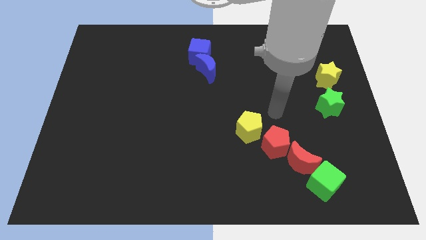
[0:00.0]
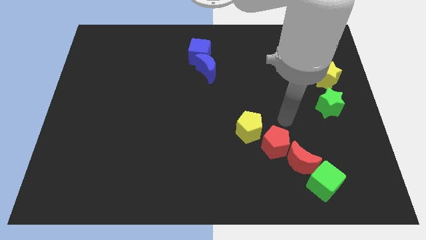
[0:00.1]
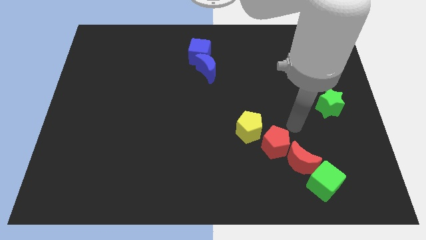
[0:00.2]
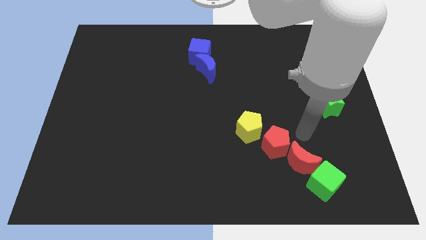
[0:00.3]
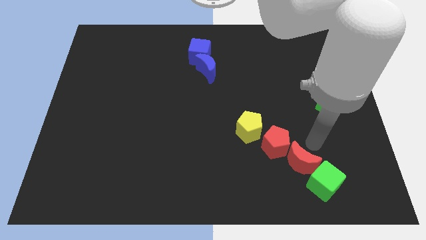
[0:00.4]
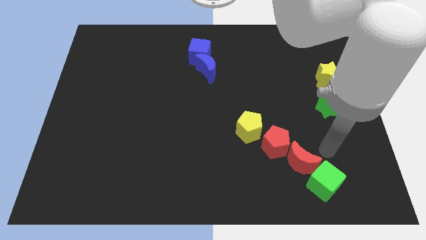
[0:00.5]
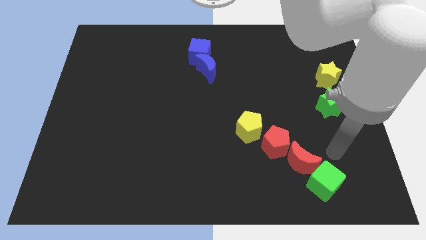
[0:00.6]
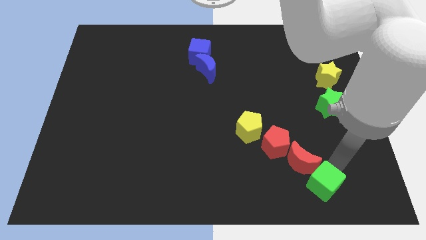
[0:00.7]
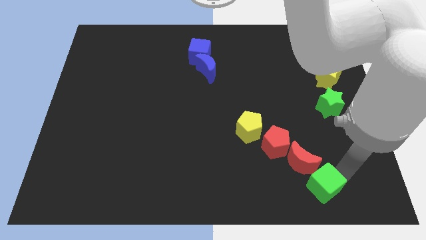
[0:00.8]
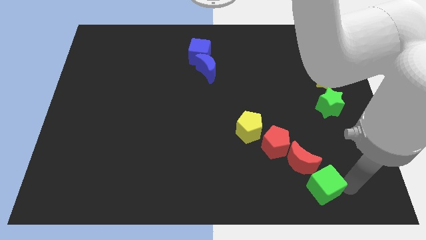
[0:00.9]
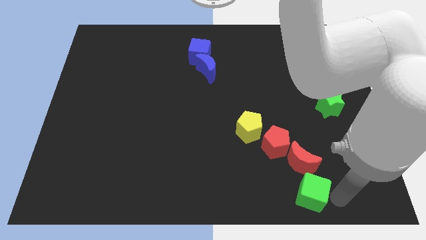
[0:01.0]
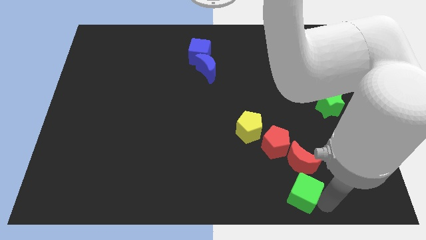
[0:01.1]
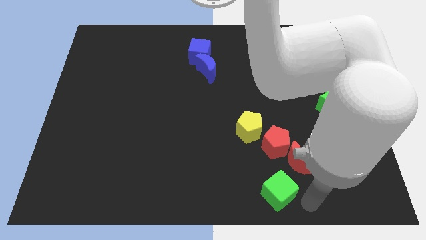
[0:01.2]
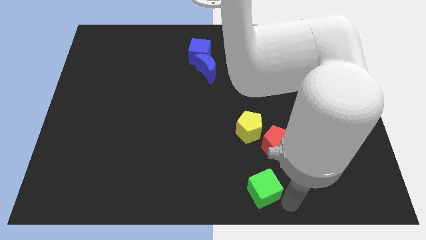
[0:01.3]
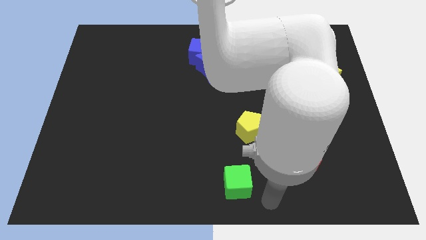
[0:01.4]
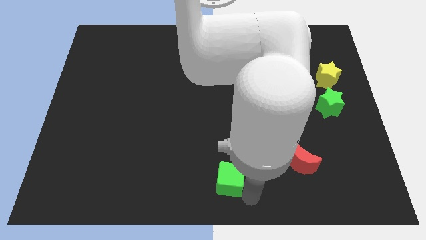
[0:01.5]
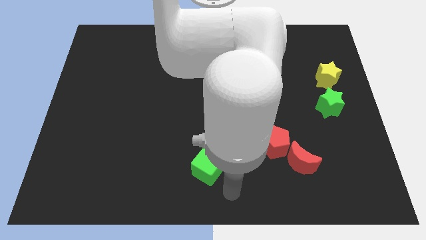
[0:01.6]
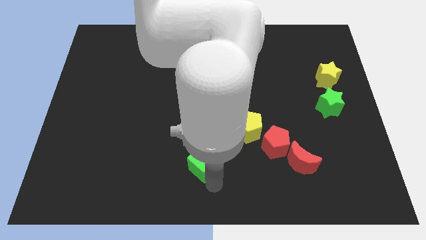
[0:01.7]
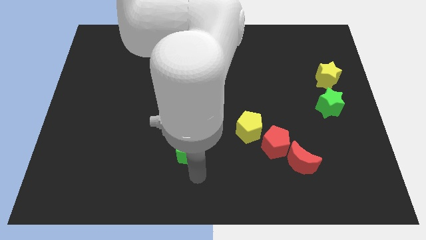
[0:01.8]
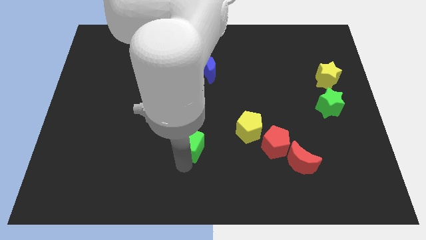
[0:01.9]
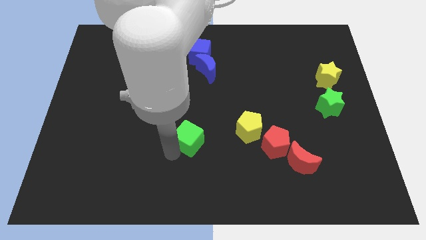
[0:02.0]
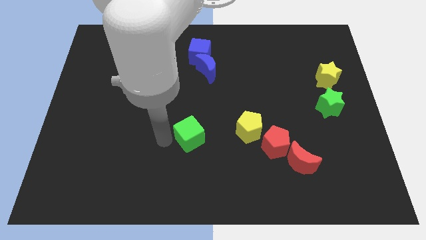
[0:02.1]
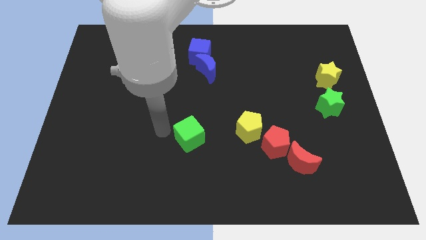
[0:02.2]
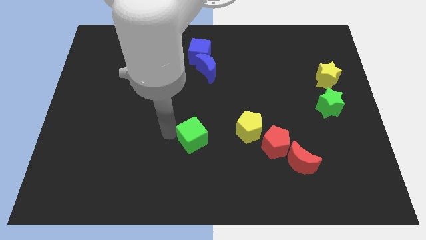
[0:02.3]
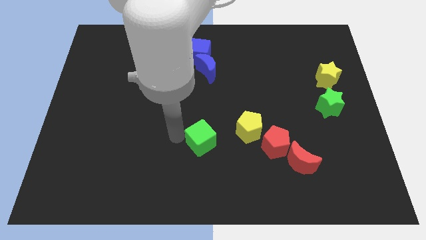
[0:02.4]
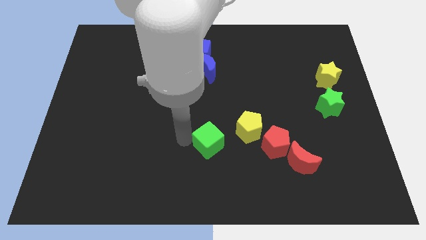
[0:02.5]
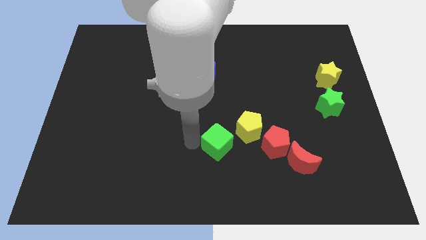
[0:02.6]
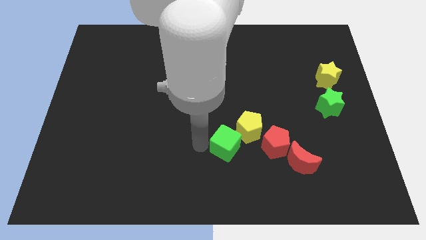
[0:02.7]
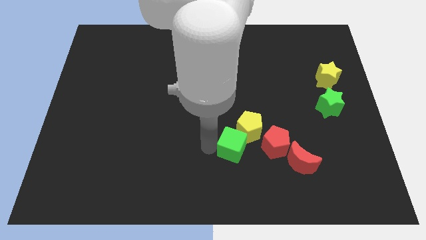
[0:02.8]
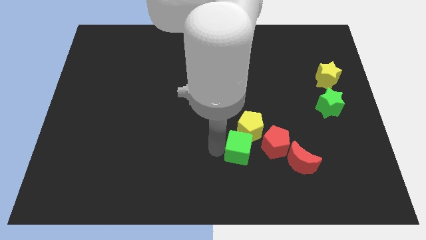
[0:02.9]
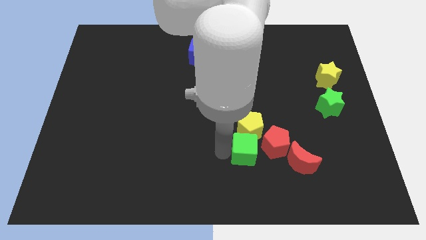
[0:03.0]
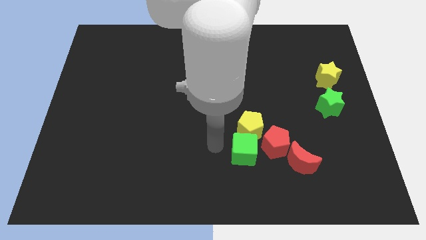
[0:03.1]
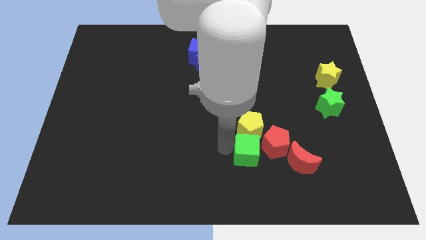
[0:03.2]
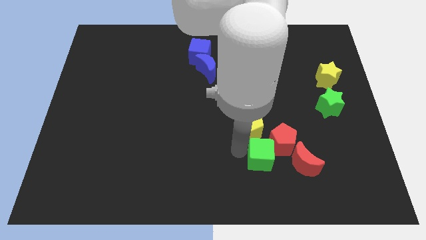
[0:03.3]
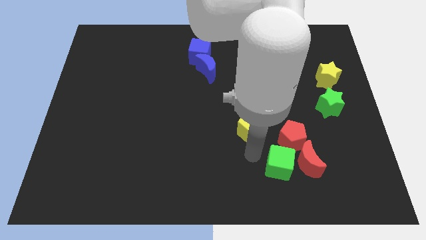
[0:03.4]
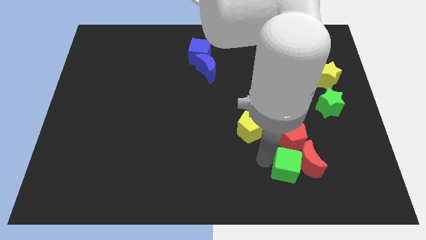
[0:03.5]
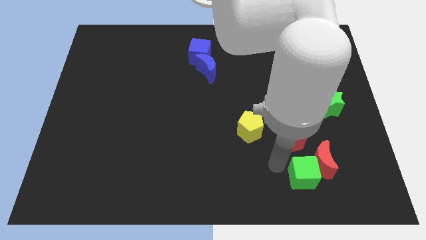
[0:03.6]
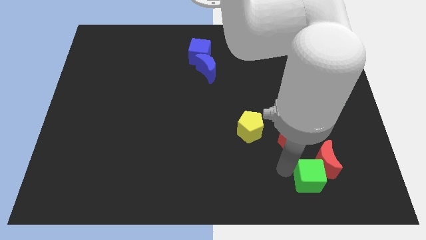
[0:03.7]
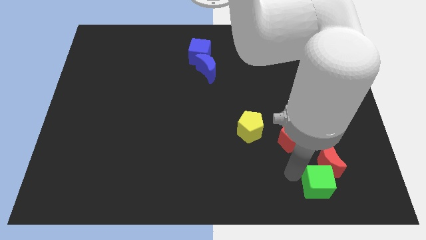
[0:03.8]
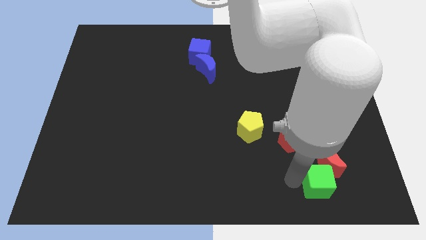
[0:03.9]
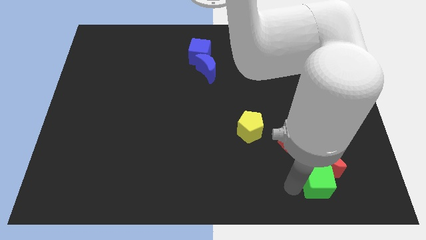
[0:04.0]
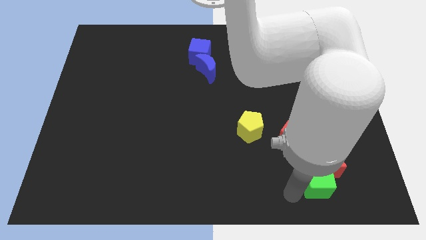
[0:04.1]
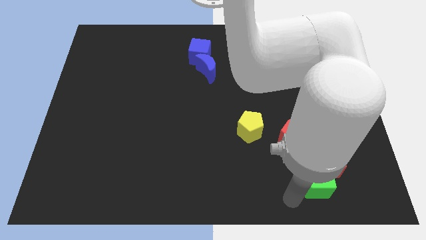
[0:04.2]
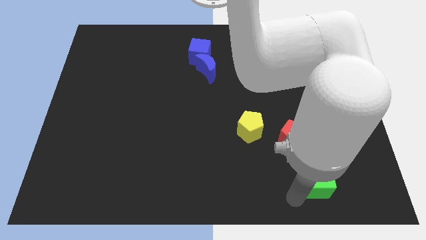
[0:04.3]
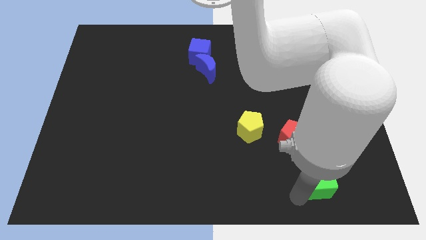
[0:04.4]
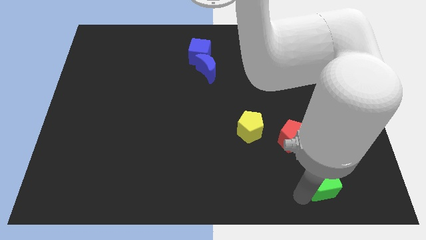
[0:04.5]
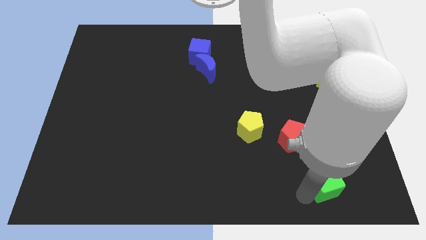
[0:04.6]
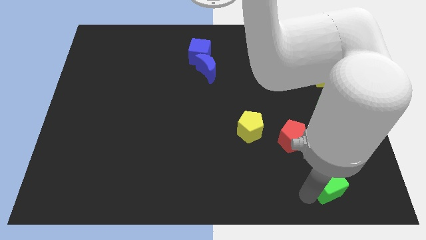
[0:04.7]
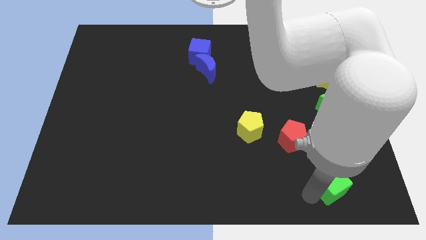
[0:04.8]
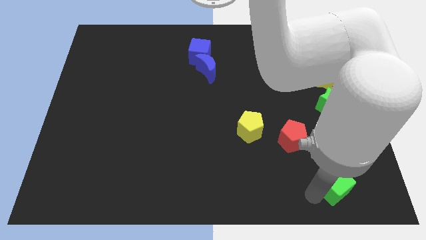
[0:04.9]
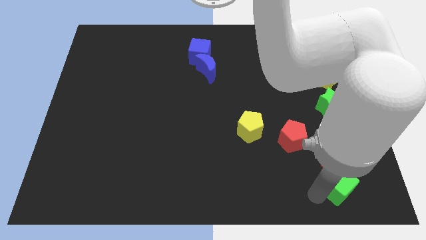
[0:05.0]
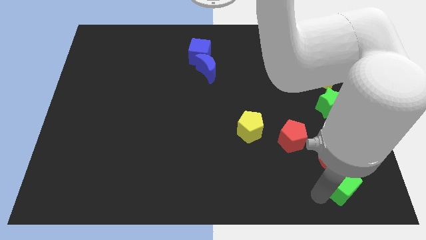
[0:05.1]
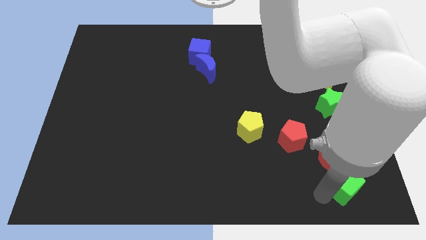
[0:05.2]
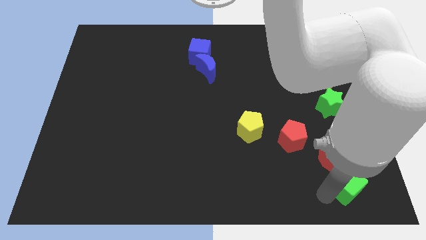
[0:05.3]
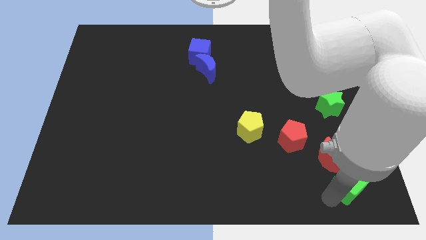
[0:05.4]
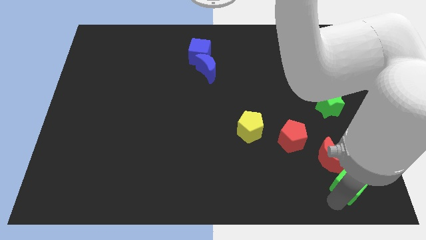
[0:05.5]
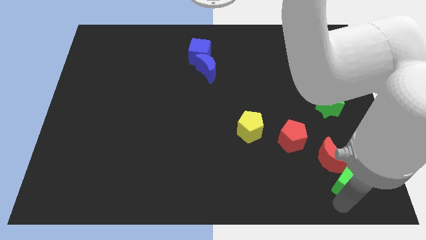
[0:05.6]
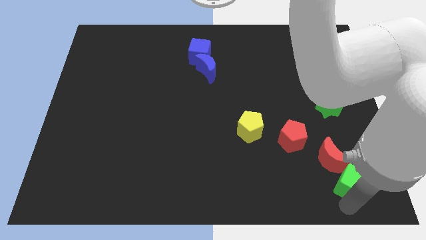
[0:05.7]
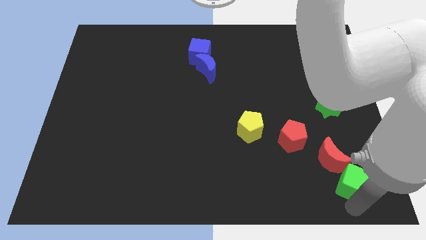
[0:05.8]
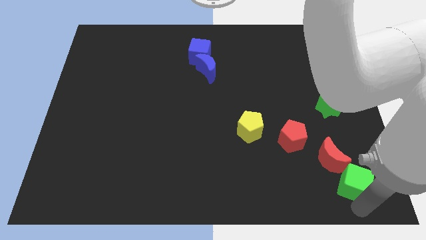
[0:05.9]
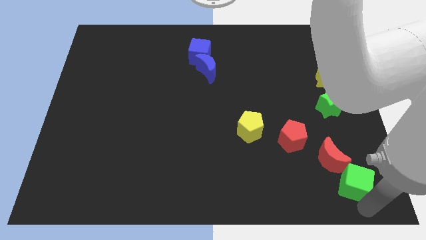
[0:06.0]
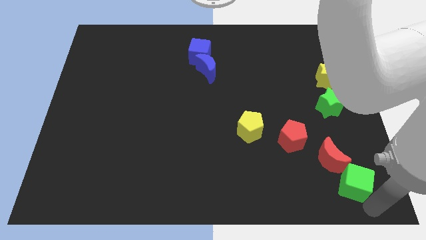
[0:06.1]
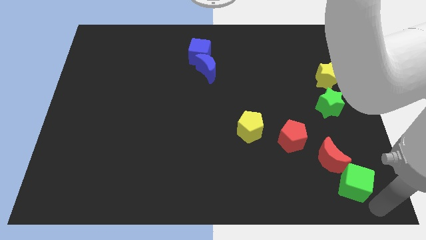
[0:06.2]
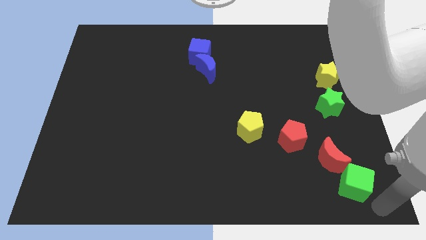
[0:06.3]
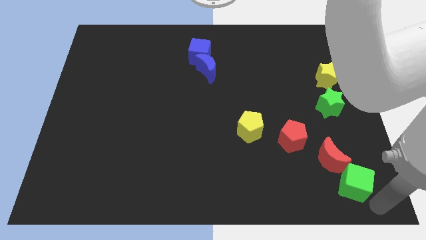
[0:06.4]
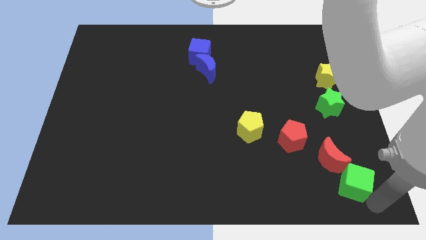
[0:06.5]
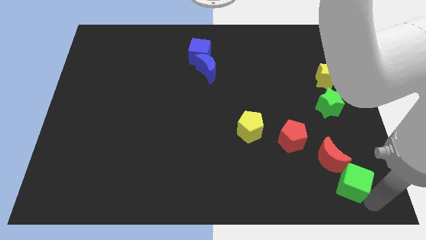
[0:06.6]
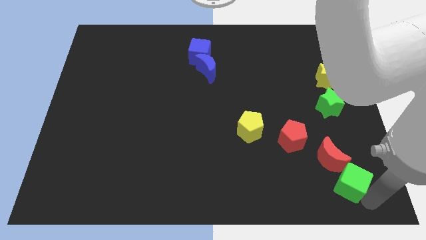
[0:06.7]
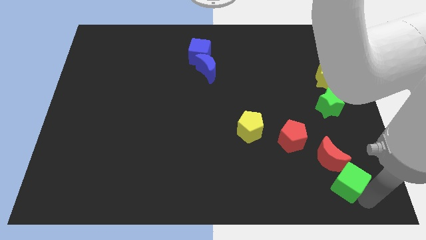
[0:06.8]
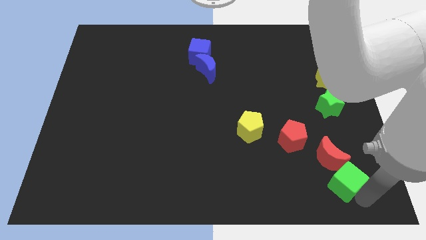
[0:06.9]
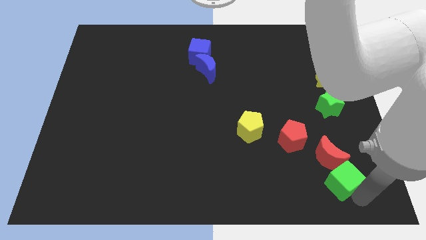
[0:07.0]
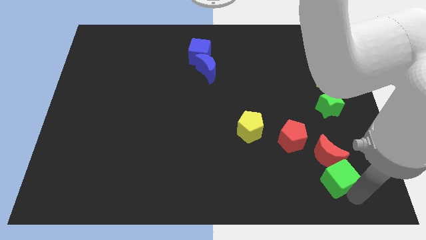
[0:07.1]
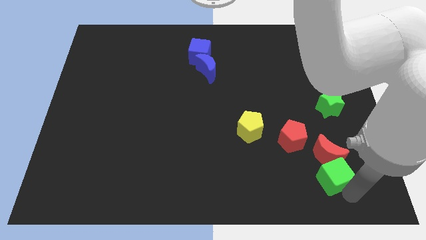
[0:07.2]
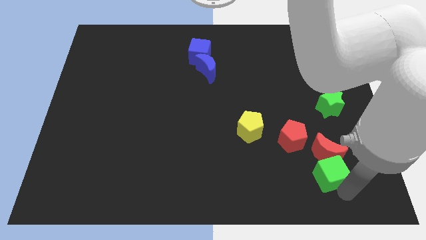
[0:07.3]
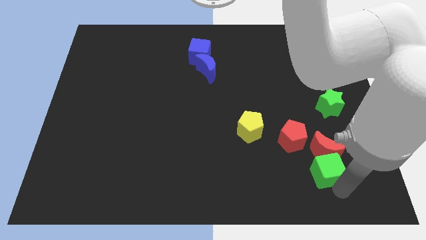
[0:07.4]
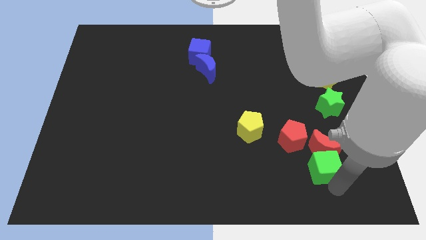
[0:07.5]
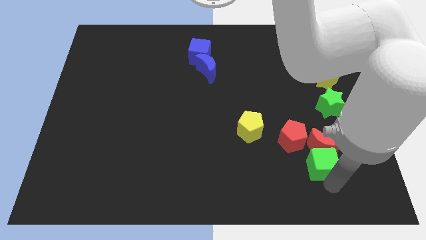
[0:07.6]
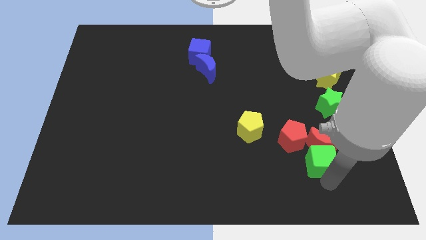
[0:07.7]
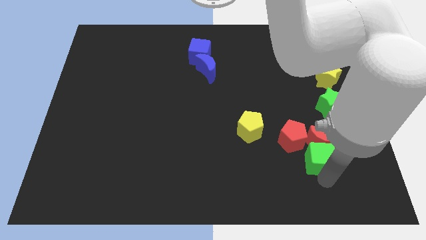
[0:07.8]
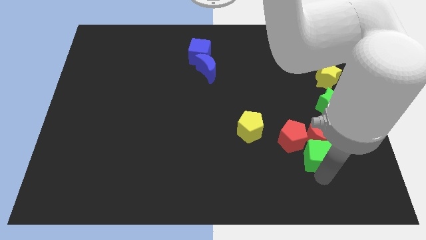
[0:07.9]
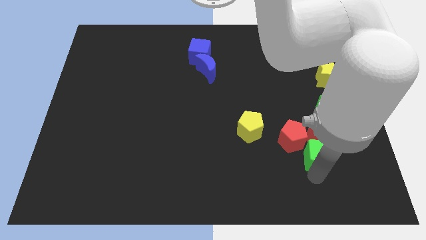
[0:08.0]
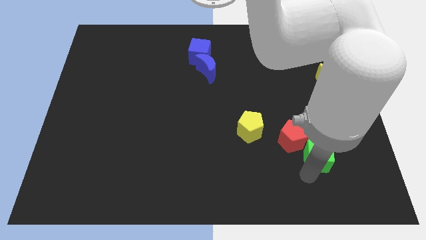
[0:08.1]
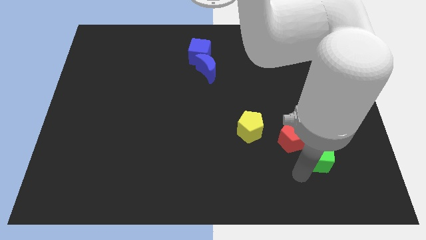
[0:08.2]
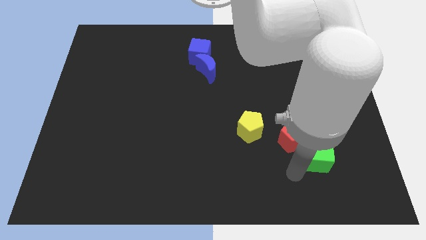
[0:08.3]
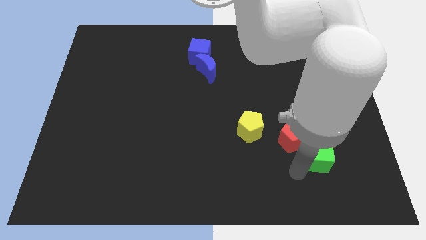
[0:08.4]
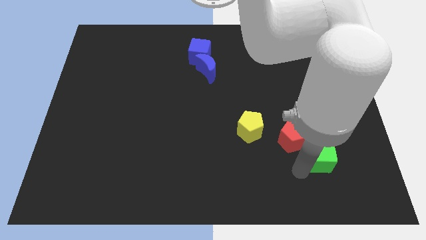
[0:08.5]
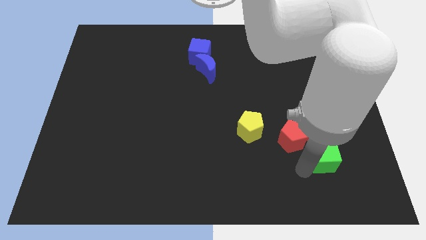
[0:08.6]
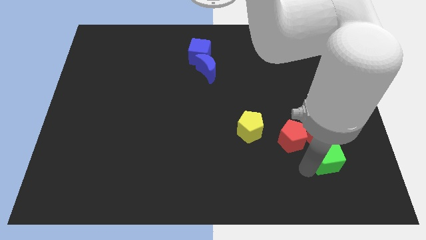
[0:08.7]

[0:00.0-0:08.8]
move the green cube to the bottom side of the green star
